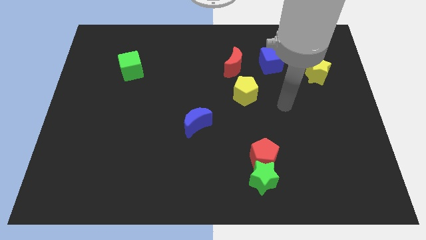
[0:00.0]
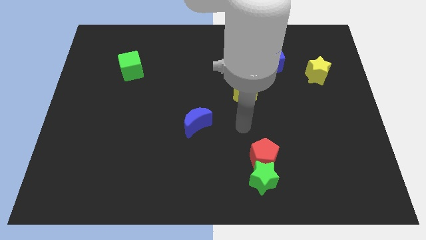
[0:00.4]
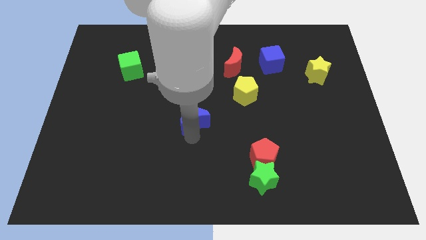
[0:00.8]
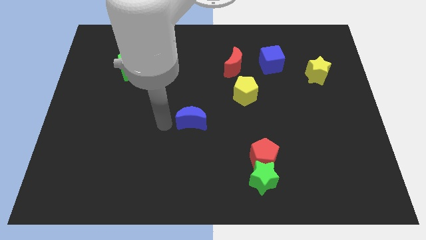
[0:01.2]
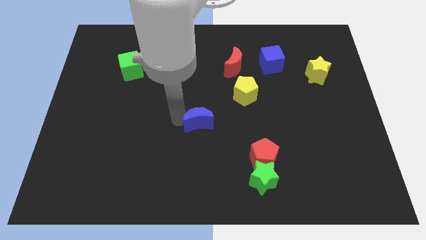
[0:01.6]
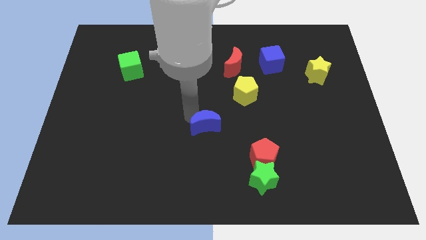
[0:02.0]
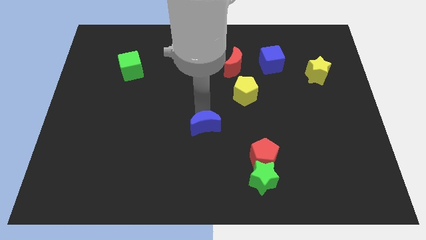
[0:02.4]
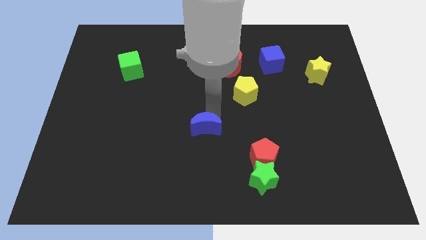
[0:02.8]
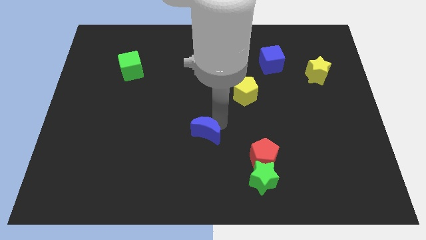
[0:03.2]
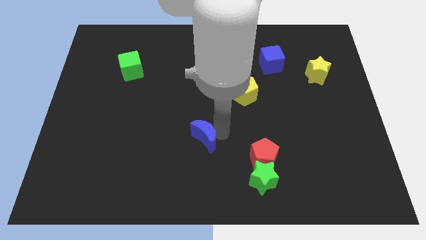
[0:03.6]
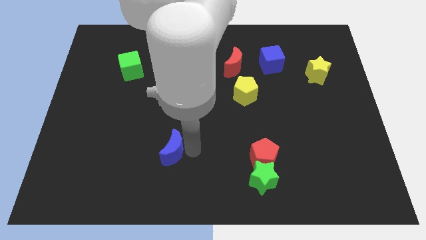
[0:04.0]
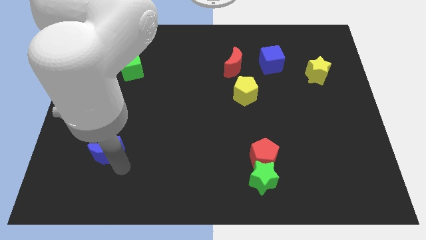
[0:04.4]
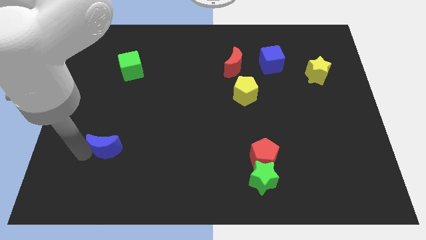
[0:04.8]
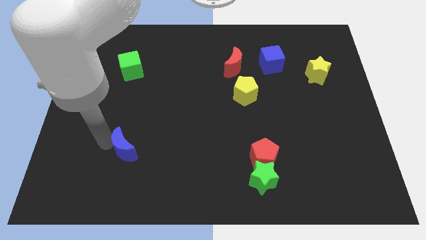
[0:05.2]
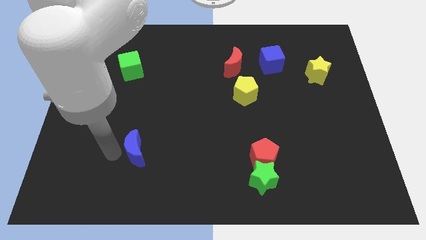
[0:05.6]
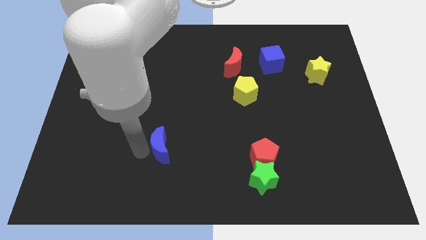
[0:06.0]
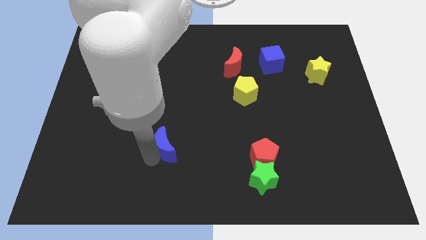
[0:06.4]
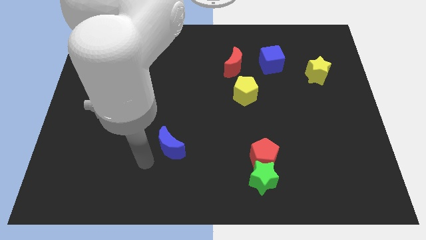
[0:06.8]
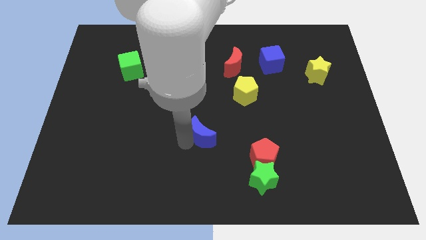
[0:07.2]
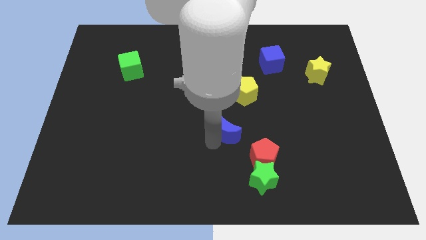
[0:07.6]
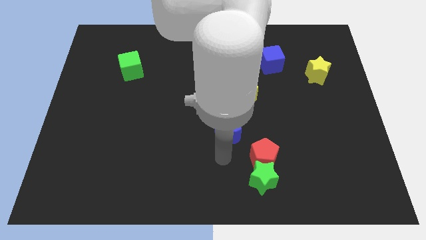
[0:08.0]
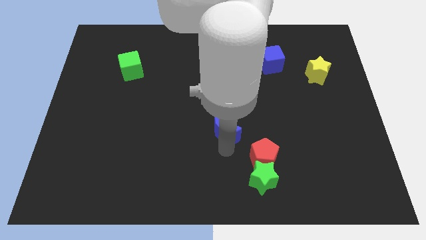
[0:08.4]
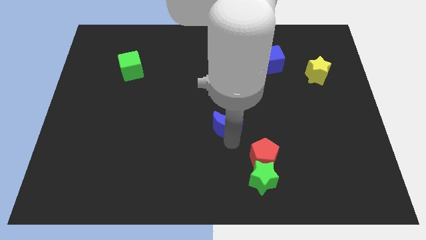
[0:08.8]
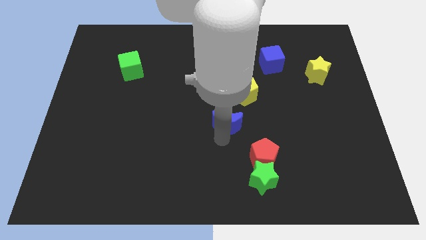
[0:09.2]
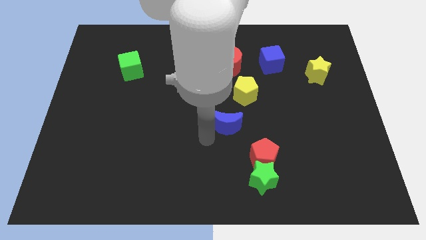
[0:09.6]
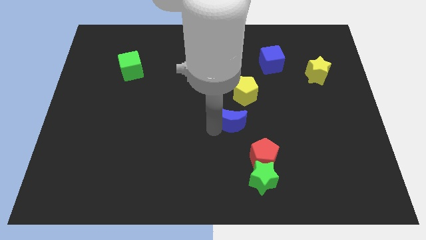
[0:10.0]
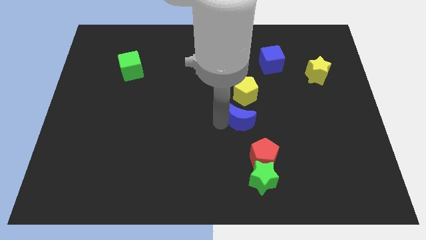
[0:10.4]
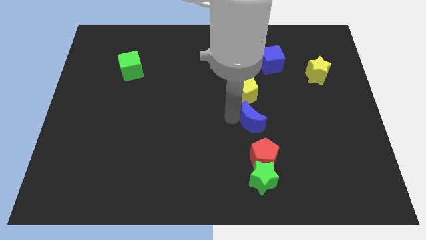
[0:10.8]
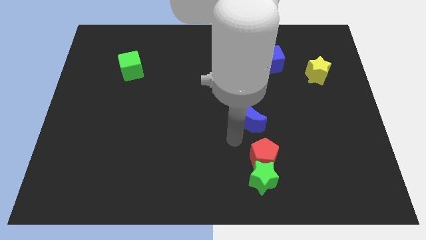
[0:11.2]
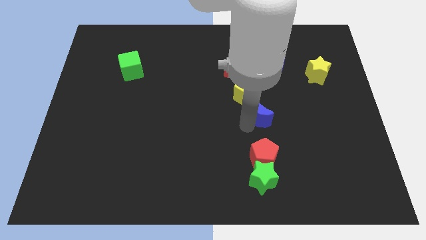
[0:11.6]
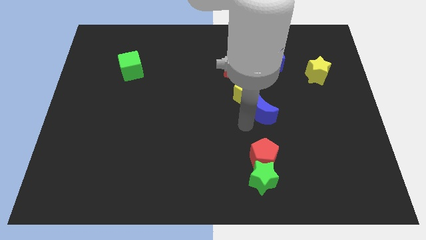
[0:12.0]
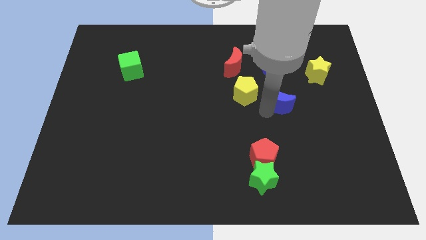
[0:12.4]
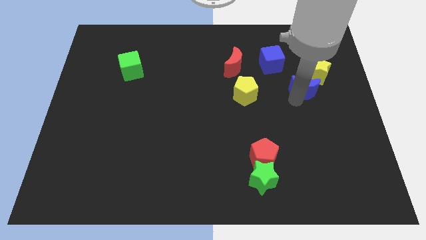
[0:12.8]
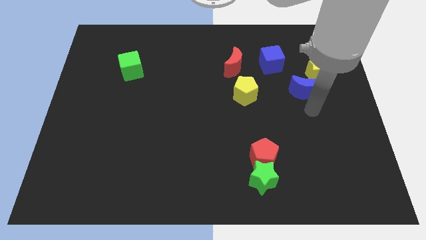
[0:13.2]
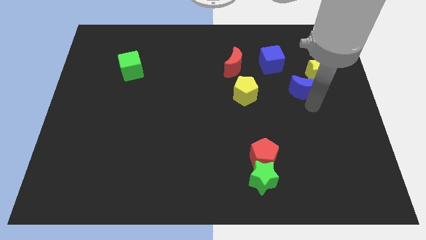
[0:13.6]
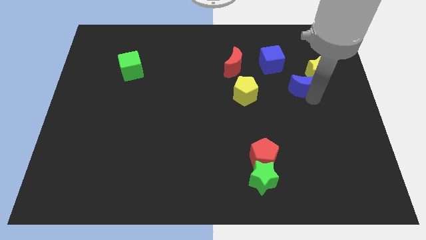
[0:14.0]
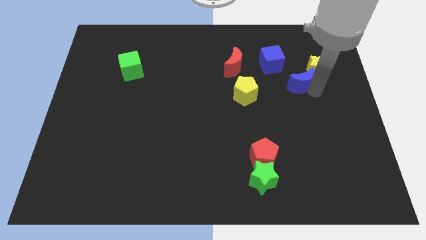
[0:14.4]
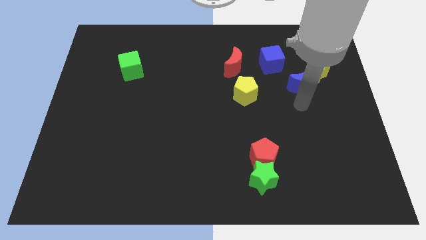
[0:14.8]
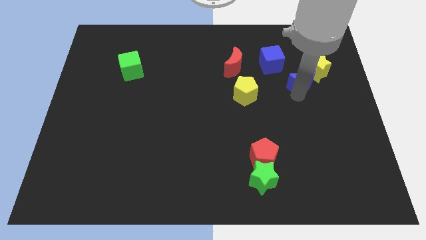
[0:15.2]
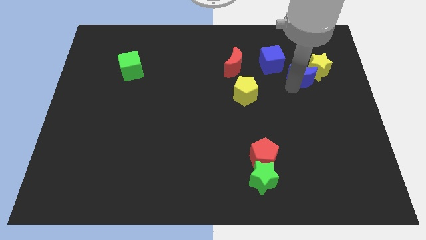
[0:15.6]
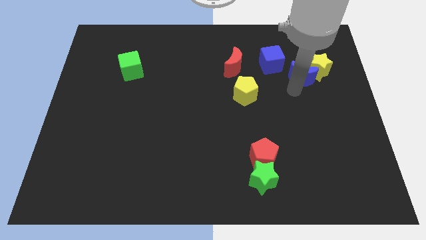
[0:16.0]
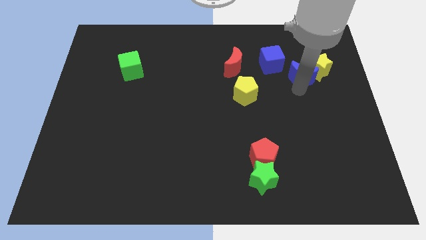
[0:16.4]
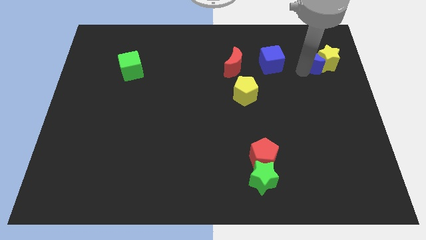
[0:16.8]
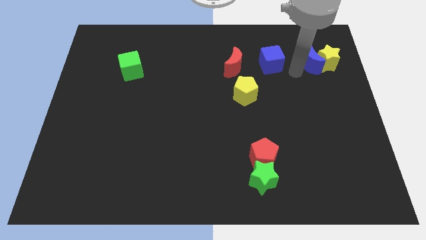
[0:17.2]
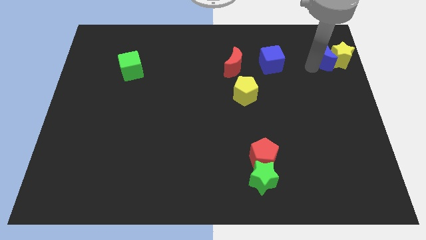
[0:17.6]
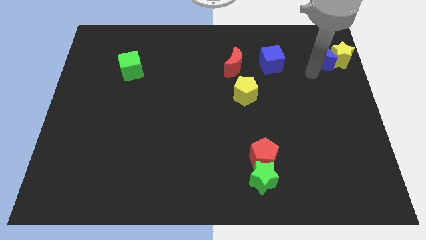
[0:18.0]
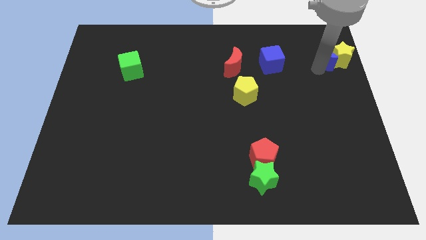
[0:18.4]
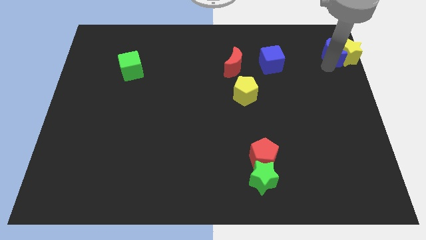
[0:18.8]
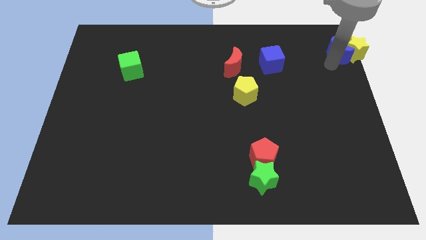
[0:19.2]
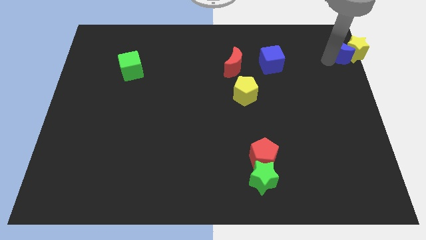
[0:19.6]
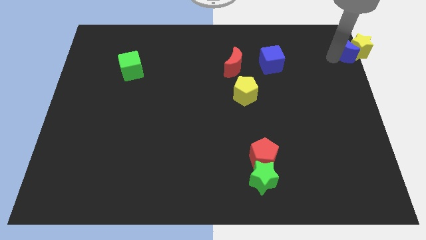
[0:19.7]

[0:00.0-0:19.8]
move the blue moon to the top right of the board

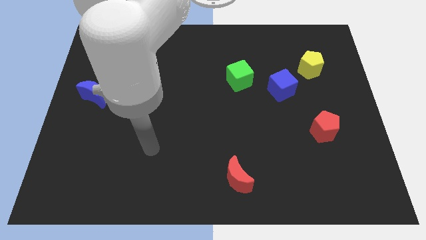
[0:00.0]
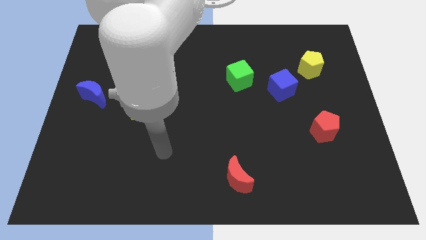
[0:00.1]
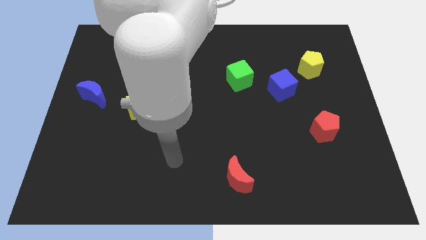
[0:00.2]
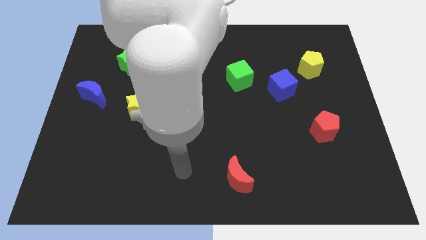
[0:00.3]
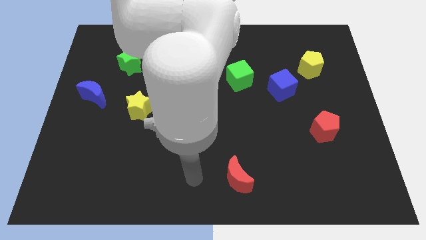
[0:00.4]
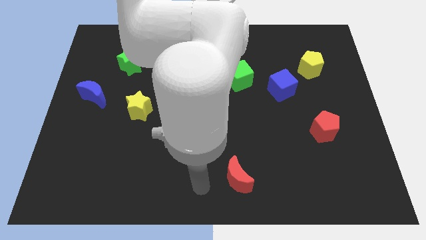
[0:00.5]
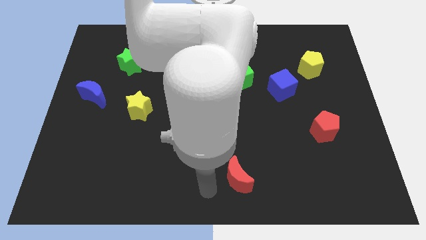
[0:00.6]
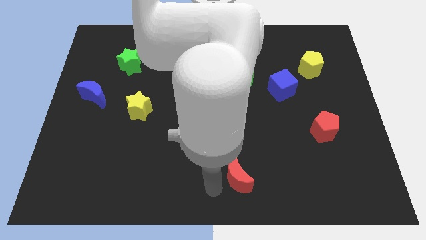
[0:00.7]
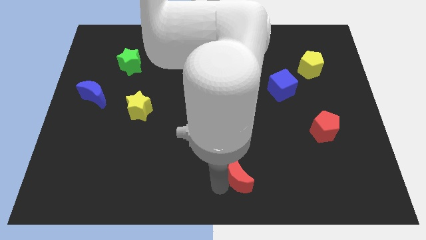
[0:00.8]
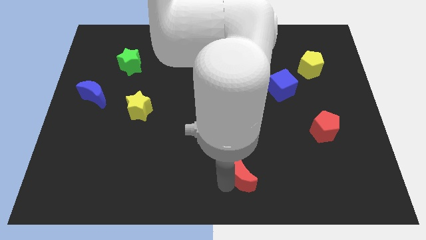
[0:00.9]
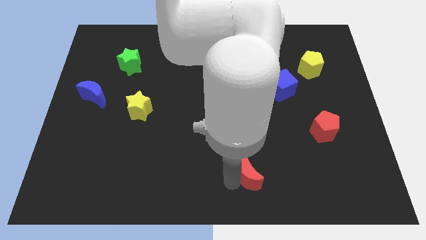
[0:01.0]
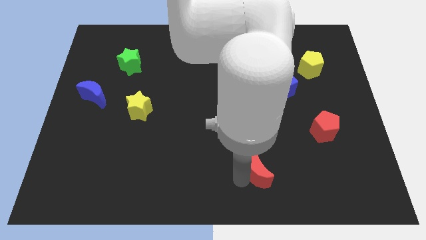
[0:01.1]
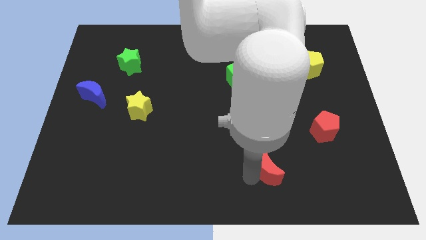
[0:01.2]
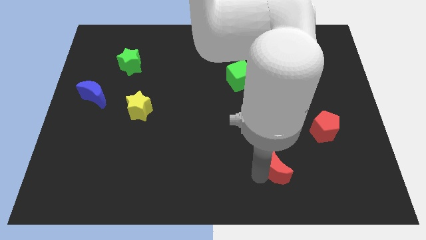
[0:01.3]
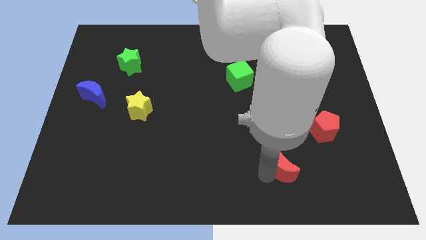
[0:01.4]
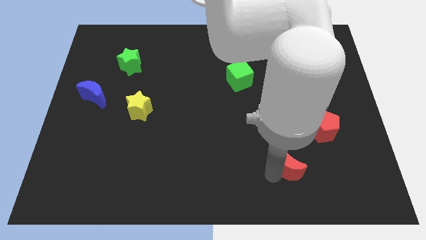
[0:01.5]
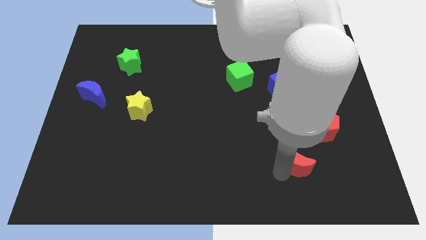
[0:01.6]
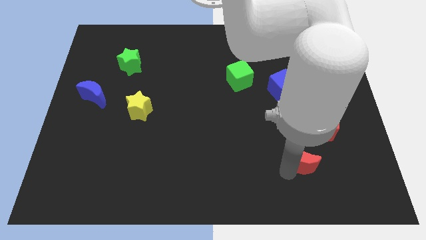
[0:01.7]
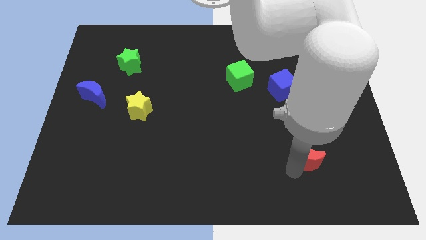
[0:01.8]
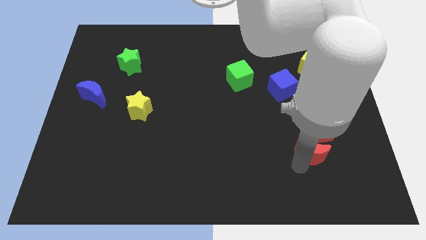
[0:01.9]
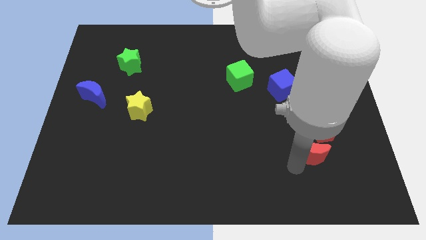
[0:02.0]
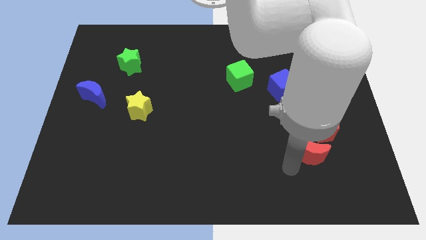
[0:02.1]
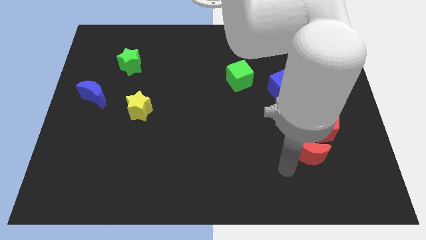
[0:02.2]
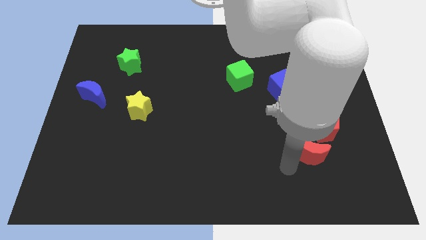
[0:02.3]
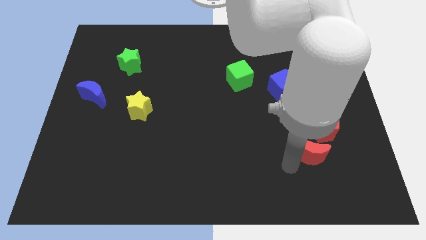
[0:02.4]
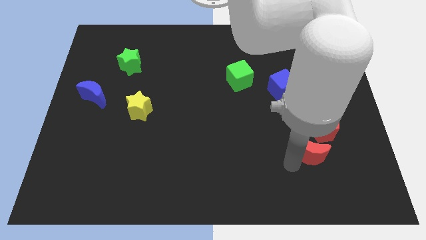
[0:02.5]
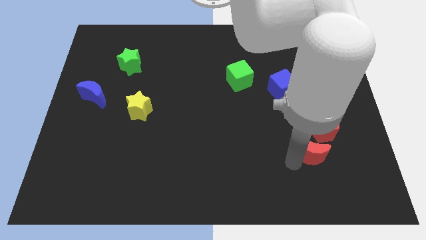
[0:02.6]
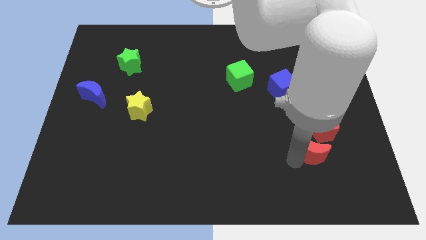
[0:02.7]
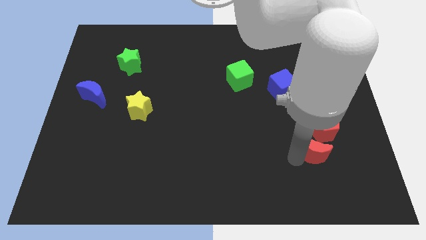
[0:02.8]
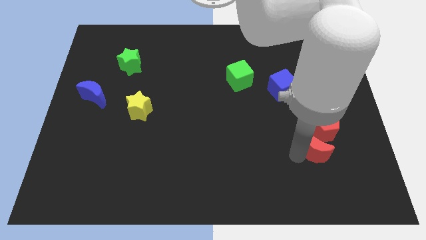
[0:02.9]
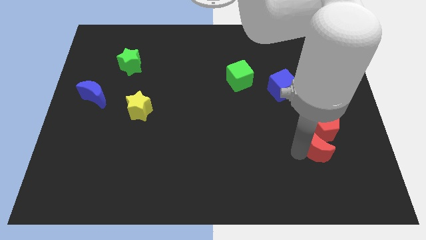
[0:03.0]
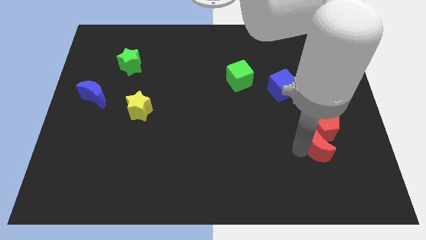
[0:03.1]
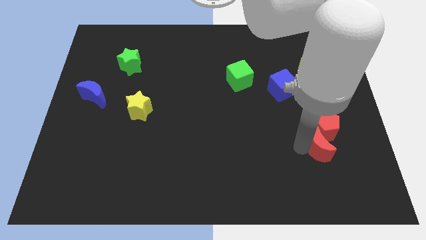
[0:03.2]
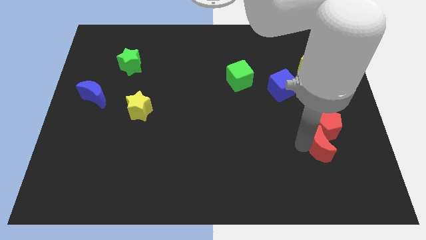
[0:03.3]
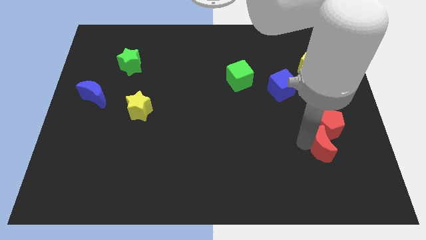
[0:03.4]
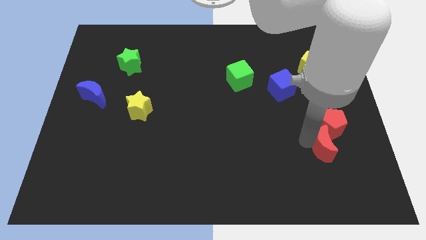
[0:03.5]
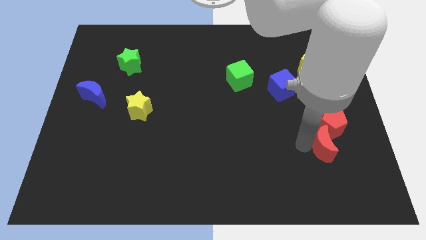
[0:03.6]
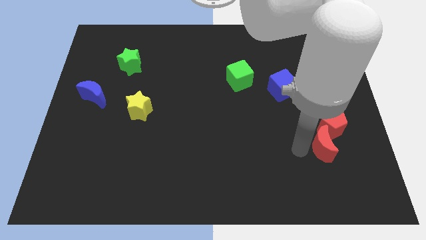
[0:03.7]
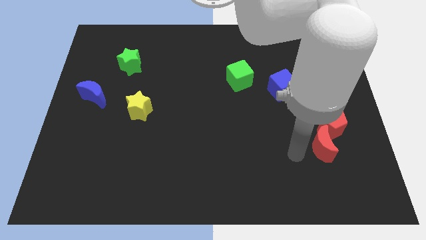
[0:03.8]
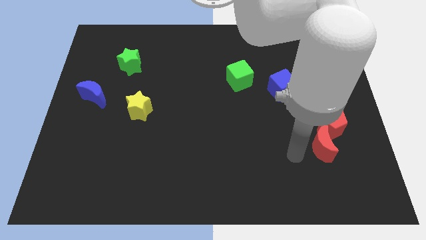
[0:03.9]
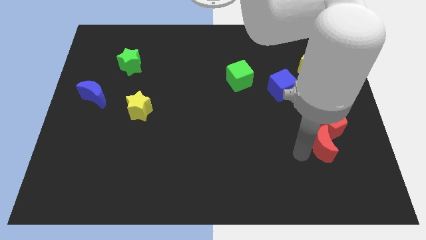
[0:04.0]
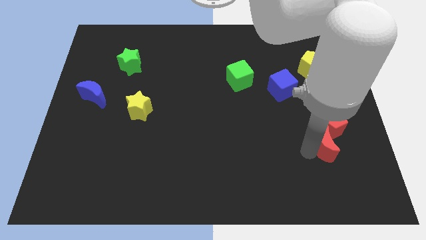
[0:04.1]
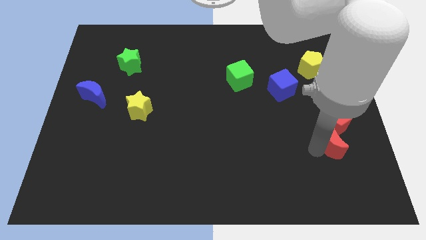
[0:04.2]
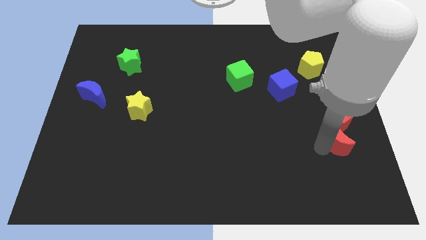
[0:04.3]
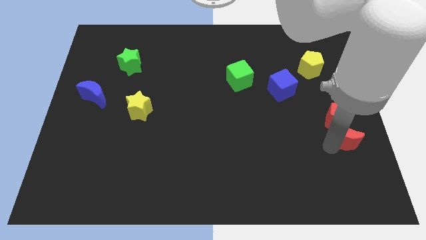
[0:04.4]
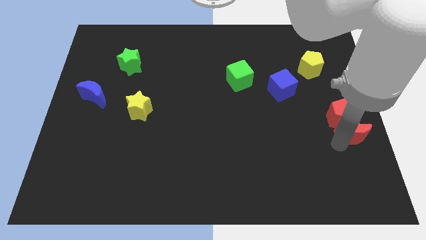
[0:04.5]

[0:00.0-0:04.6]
move the red moon to the right side
